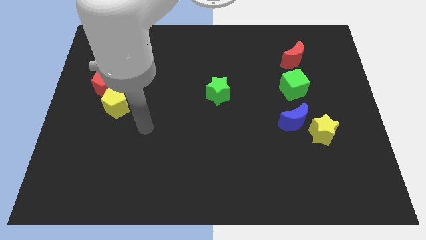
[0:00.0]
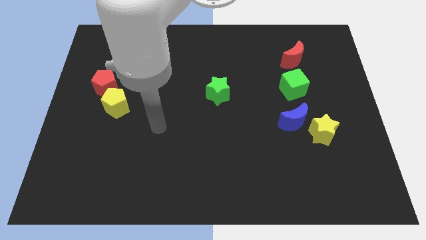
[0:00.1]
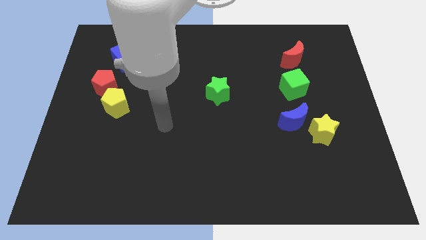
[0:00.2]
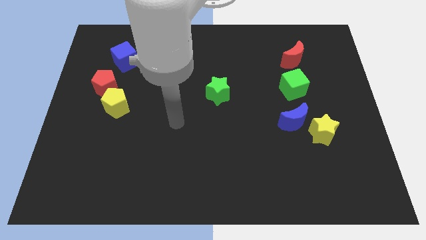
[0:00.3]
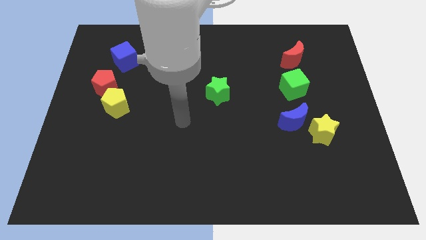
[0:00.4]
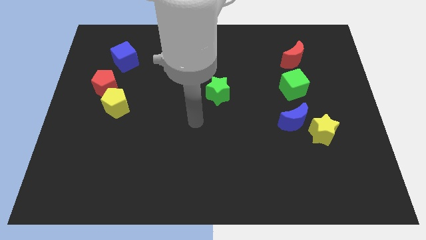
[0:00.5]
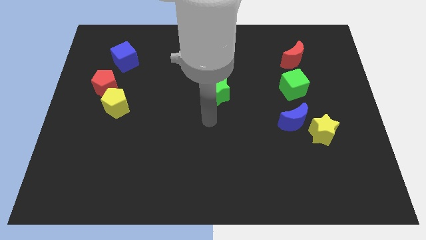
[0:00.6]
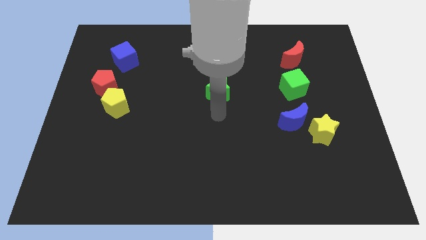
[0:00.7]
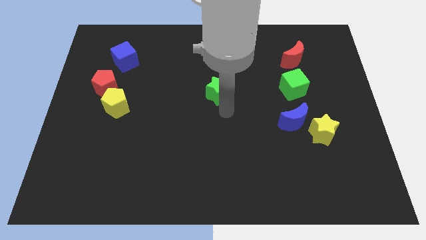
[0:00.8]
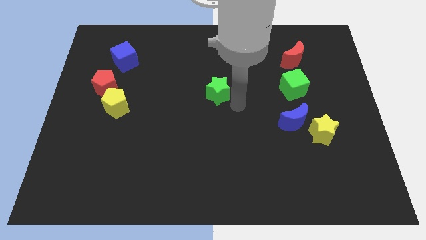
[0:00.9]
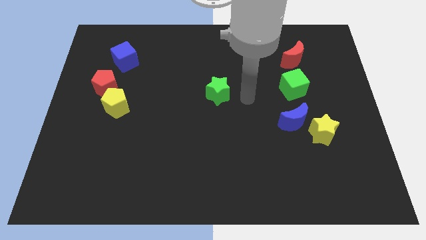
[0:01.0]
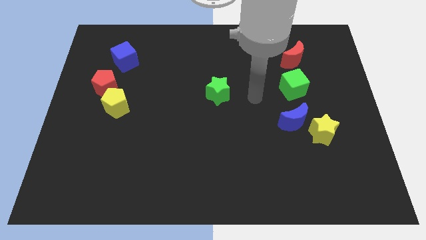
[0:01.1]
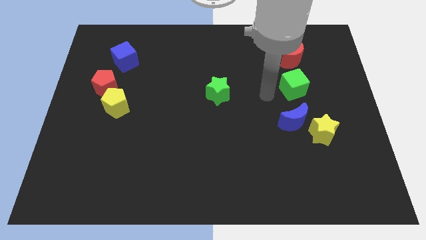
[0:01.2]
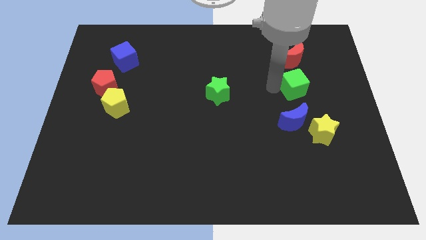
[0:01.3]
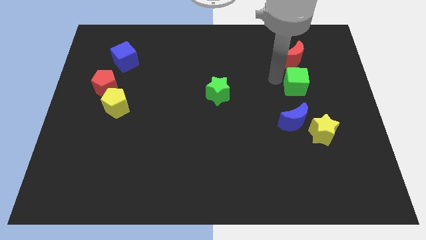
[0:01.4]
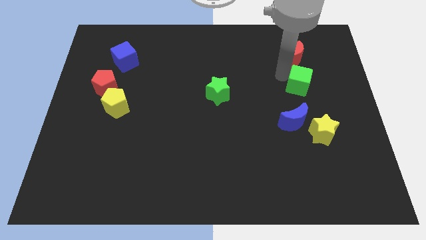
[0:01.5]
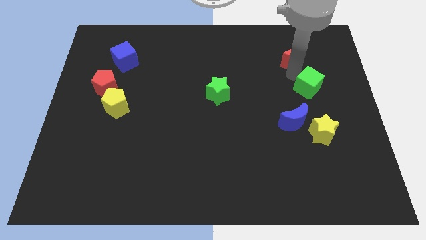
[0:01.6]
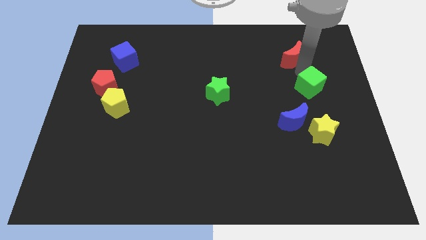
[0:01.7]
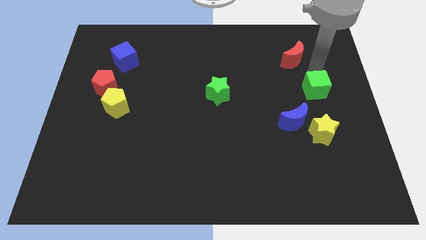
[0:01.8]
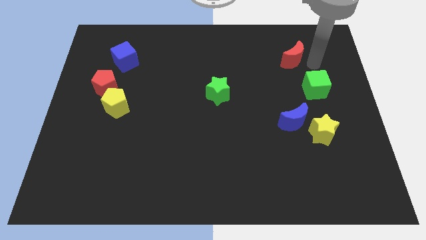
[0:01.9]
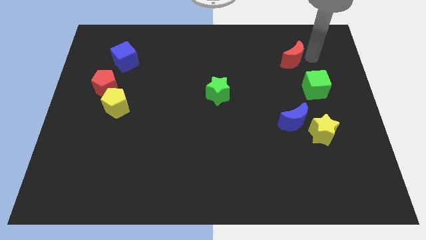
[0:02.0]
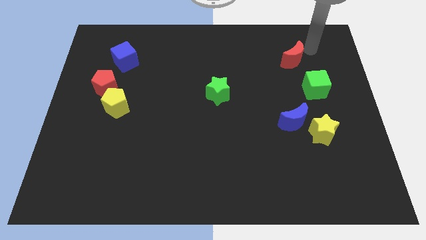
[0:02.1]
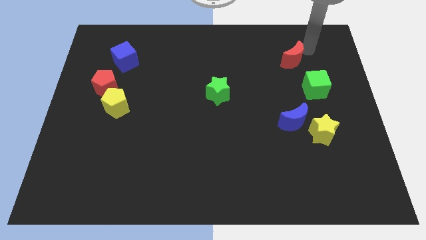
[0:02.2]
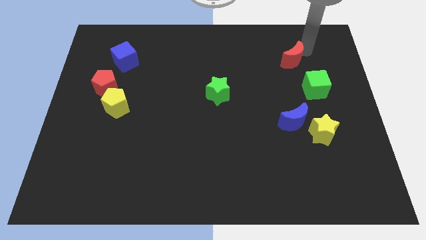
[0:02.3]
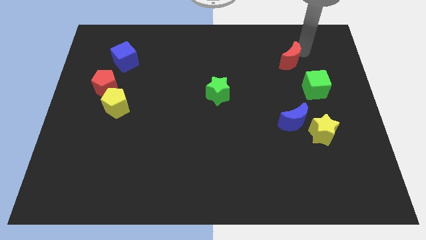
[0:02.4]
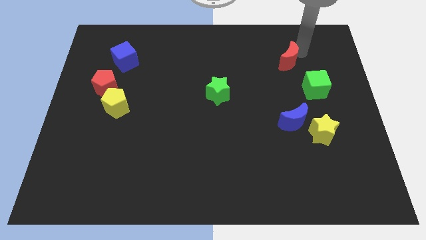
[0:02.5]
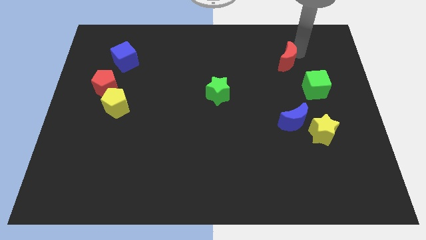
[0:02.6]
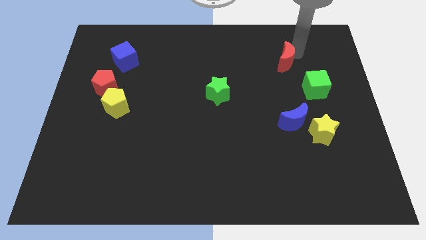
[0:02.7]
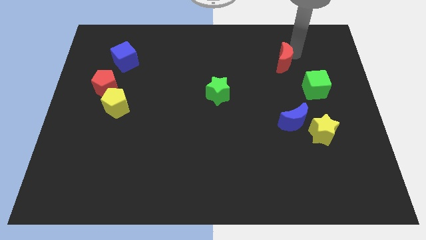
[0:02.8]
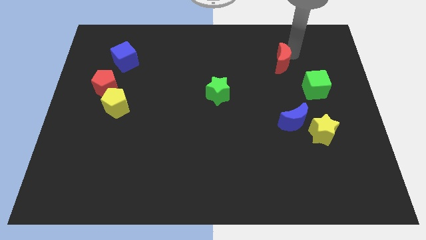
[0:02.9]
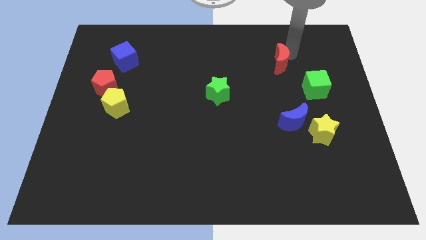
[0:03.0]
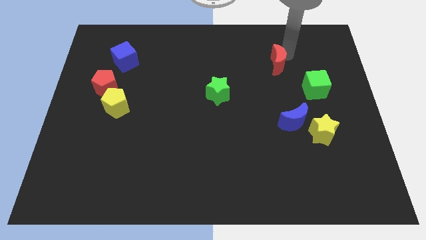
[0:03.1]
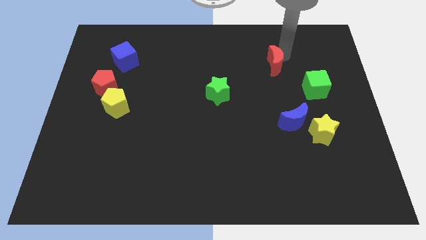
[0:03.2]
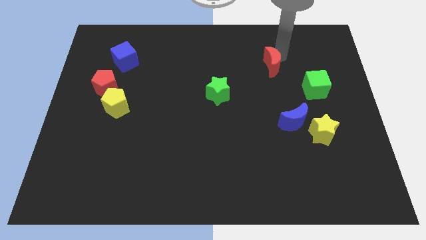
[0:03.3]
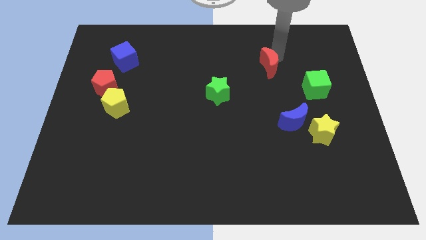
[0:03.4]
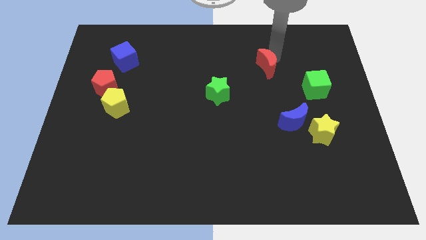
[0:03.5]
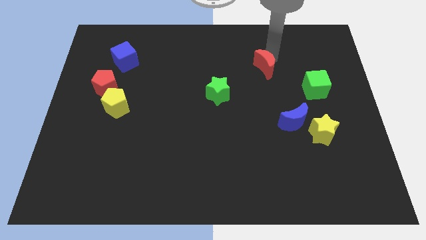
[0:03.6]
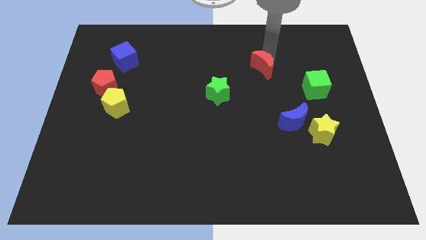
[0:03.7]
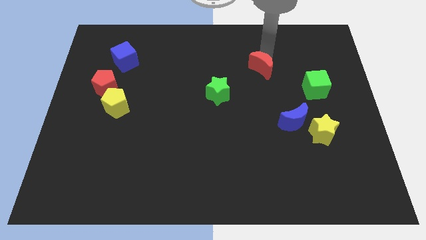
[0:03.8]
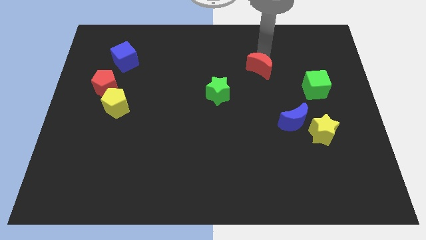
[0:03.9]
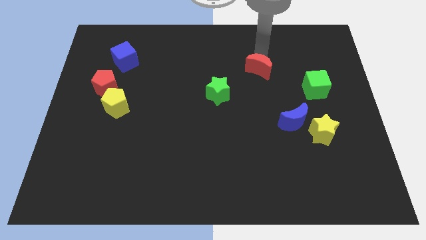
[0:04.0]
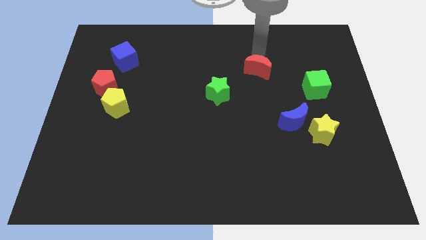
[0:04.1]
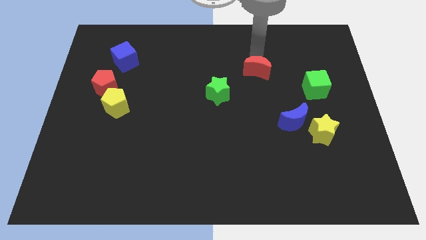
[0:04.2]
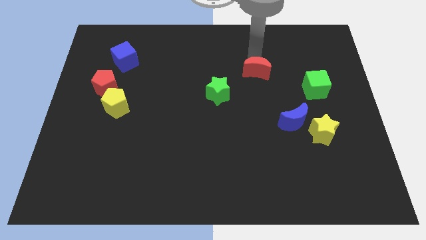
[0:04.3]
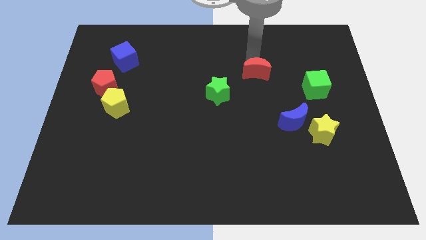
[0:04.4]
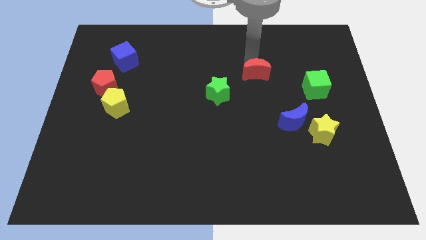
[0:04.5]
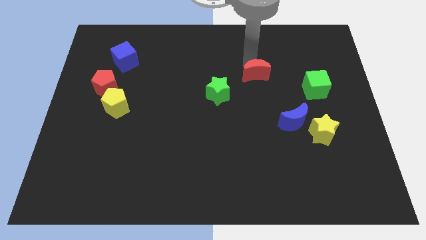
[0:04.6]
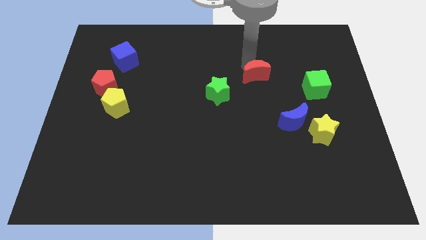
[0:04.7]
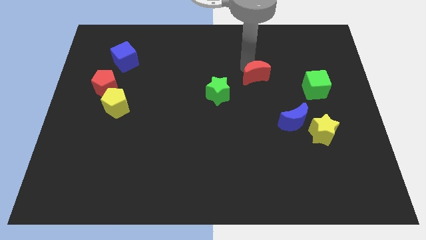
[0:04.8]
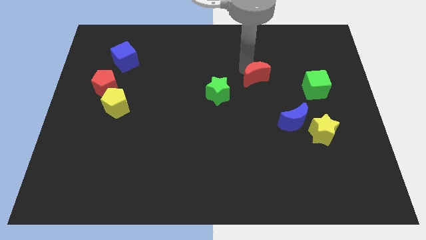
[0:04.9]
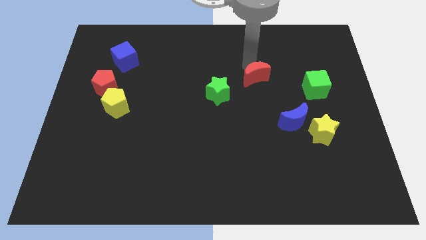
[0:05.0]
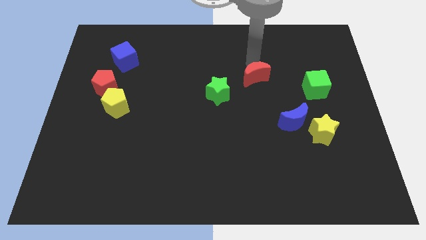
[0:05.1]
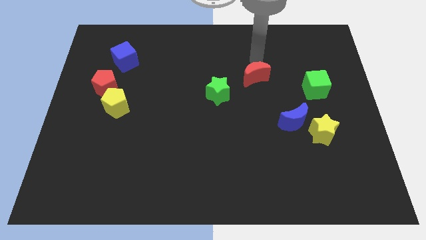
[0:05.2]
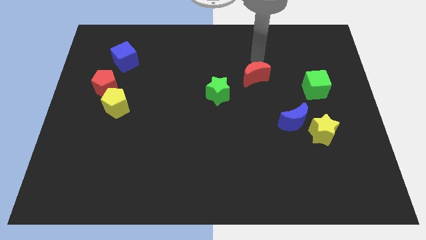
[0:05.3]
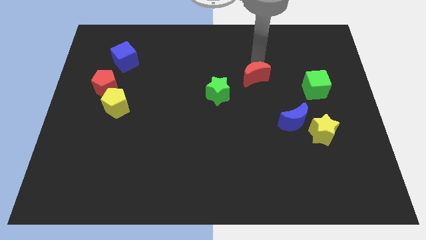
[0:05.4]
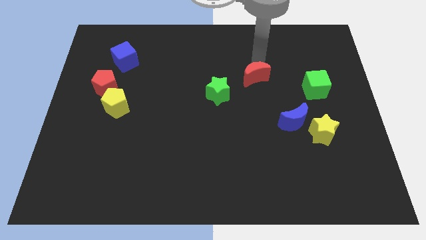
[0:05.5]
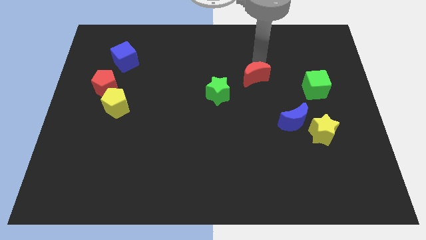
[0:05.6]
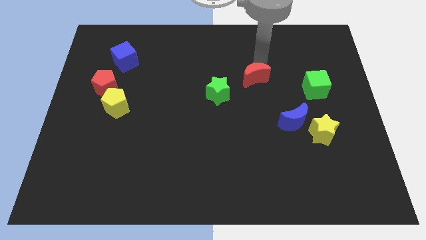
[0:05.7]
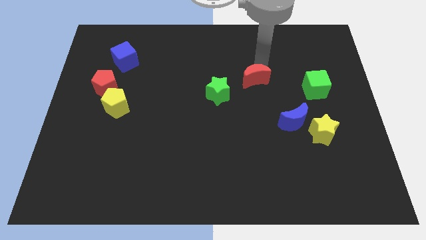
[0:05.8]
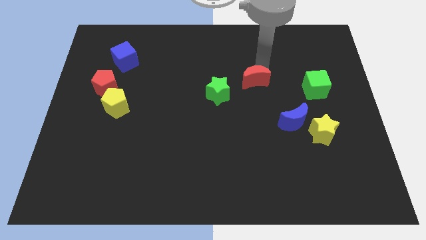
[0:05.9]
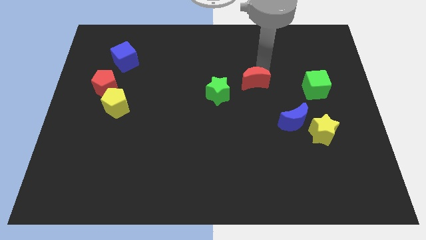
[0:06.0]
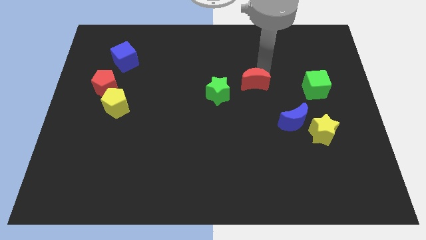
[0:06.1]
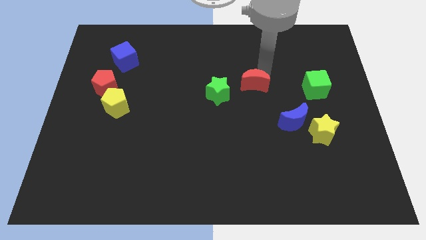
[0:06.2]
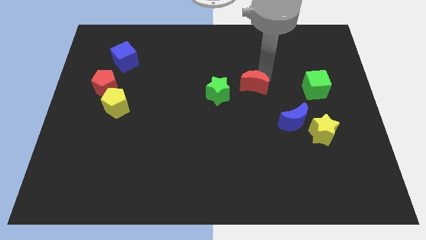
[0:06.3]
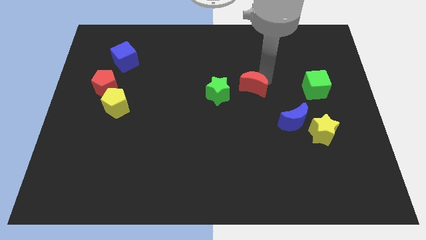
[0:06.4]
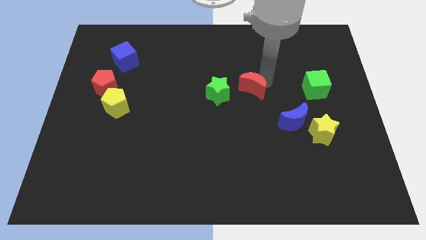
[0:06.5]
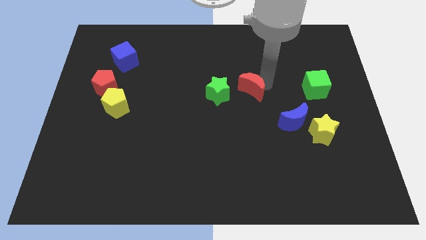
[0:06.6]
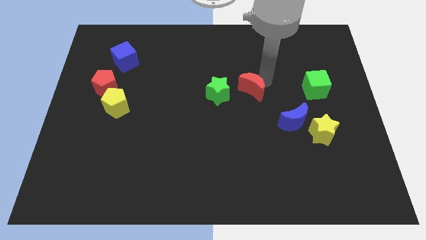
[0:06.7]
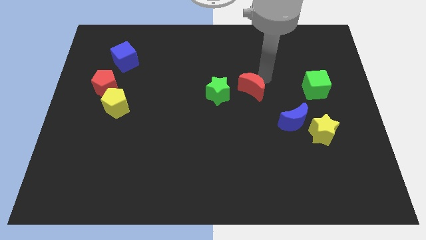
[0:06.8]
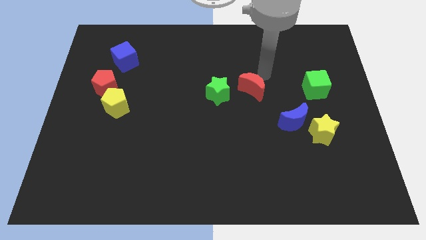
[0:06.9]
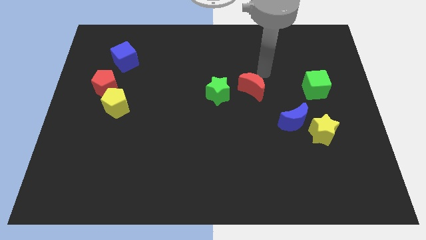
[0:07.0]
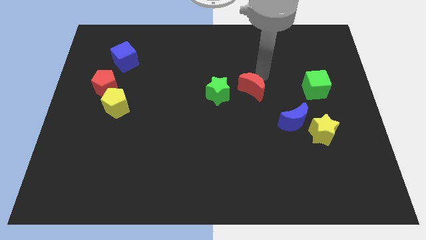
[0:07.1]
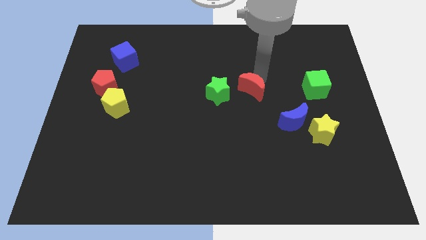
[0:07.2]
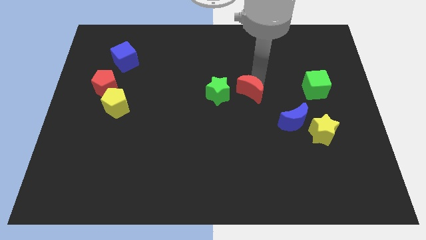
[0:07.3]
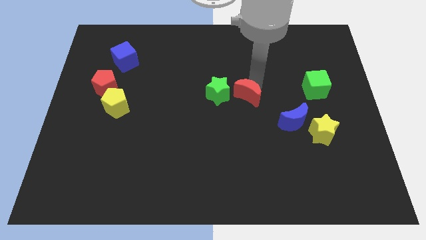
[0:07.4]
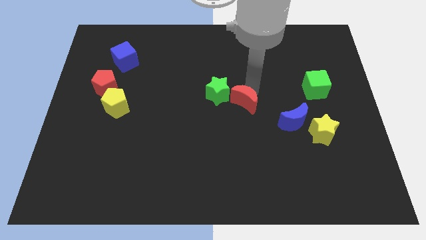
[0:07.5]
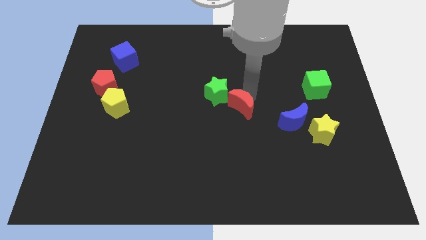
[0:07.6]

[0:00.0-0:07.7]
push the red moon downwards and then to the left
